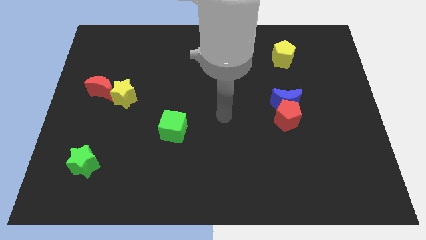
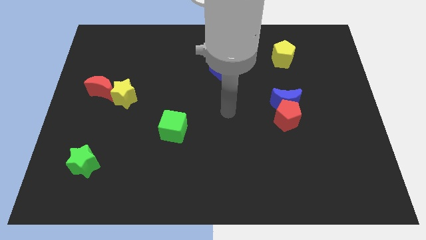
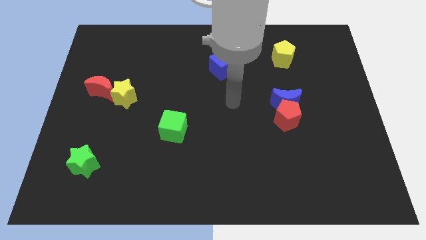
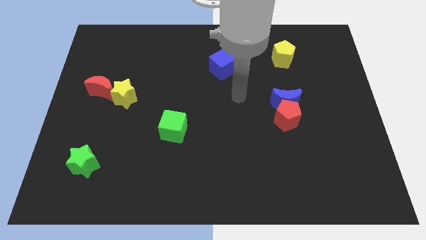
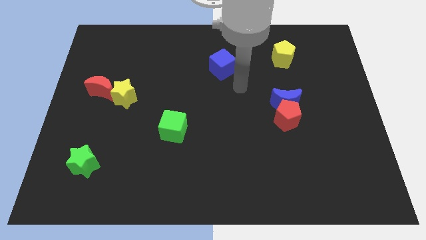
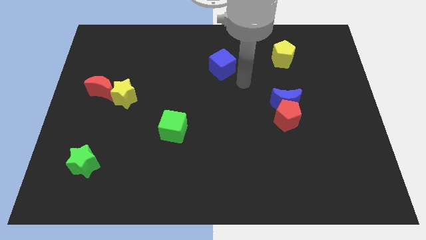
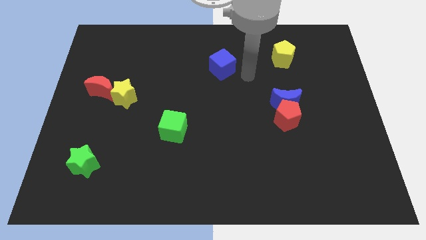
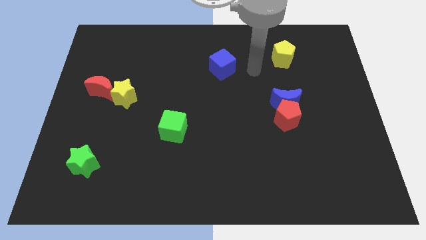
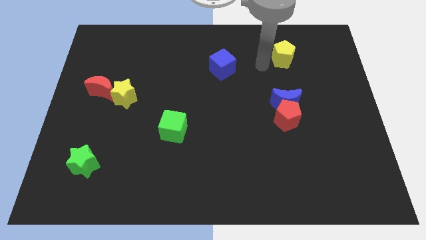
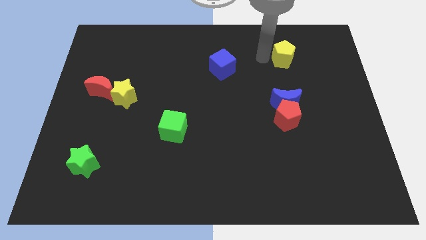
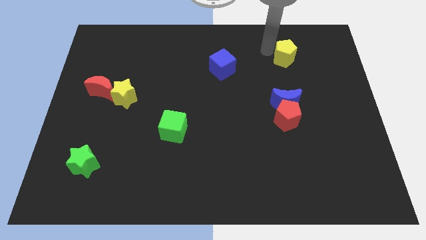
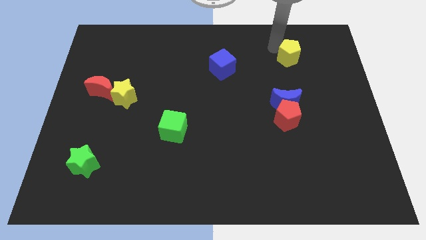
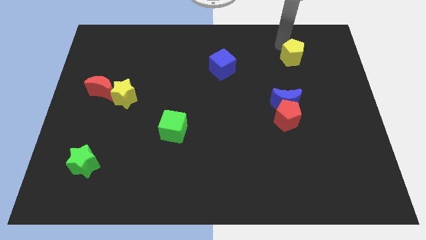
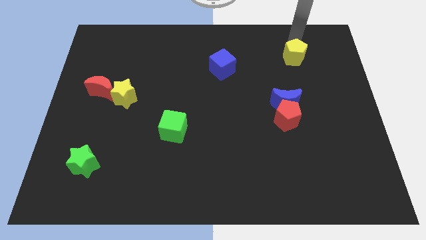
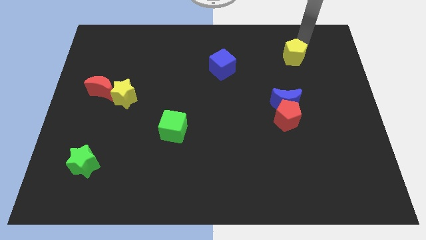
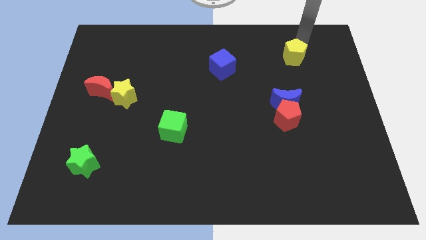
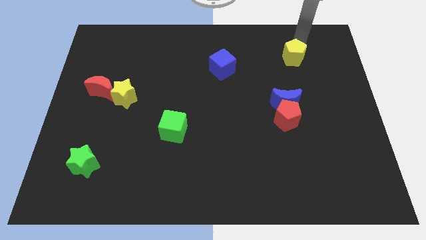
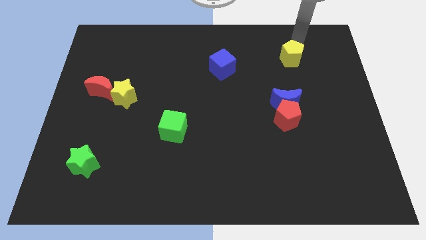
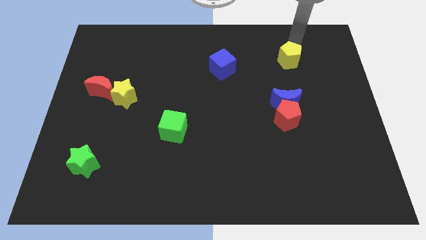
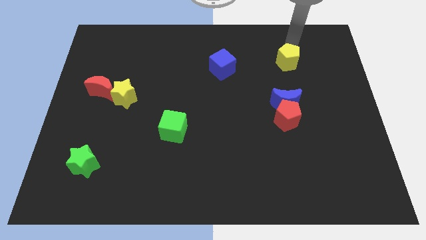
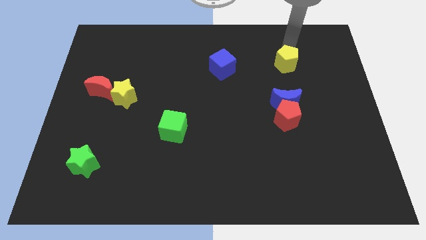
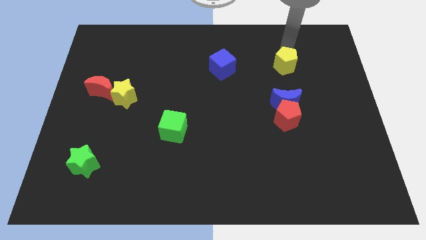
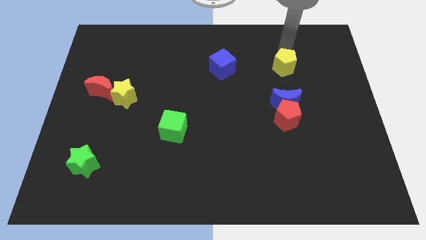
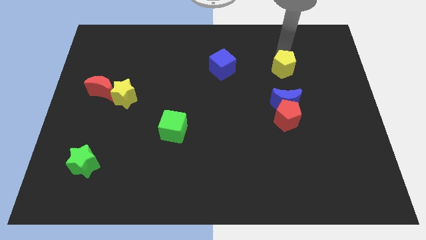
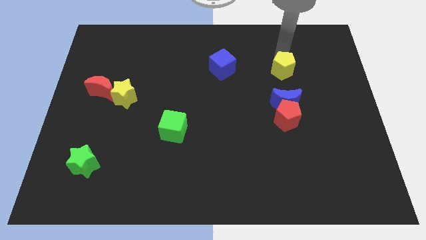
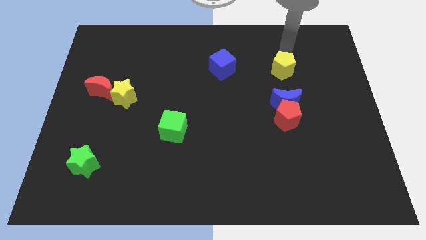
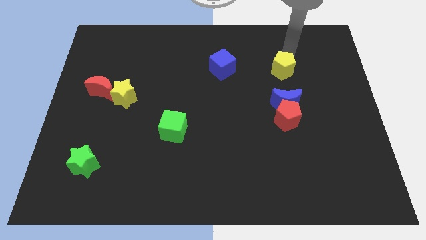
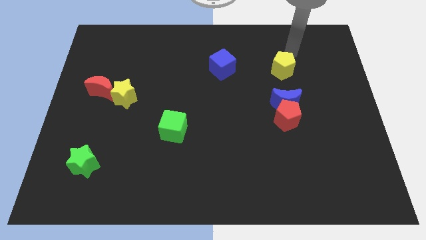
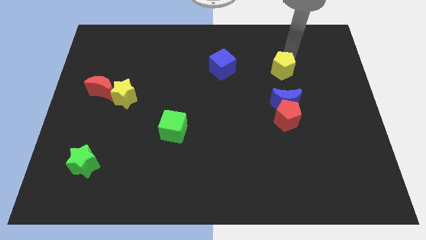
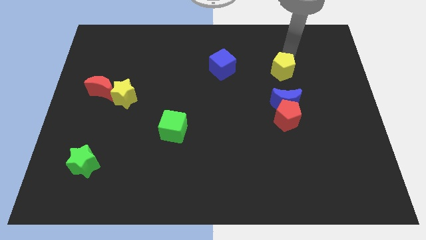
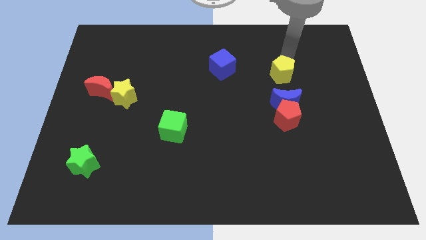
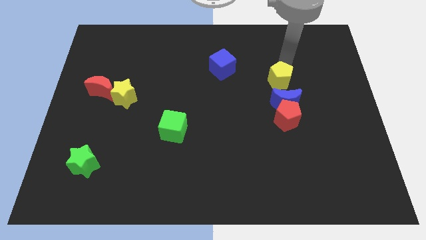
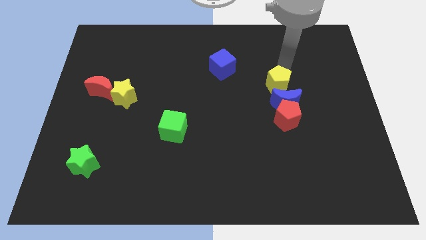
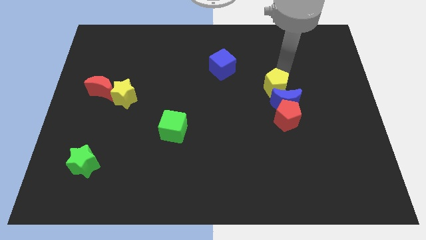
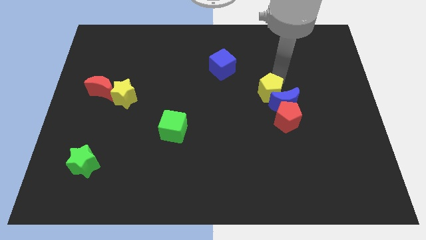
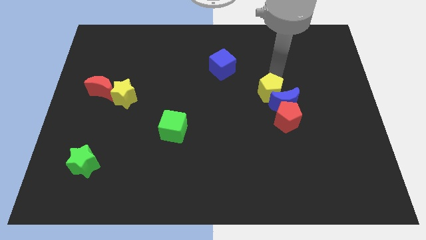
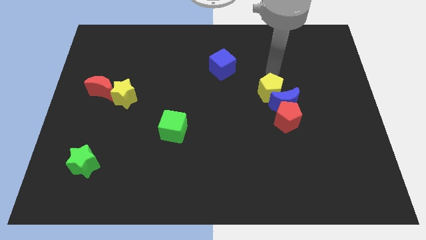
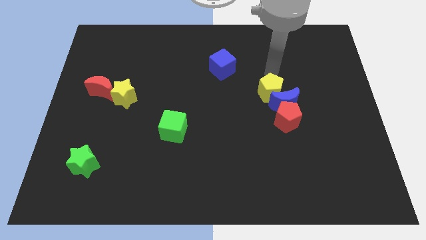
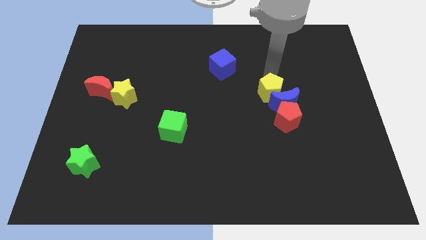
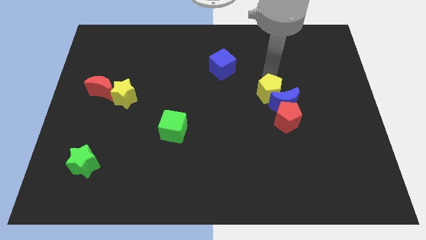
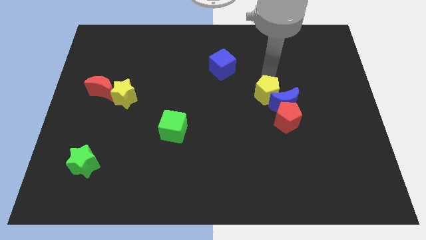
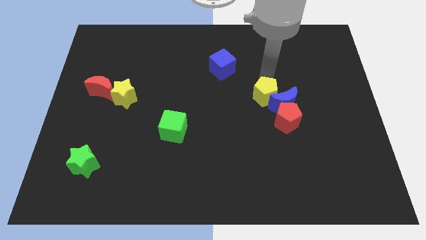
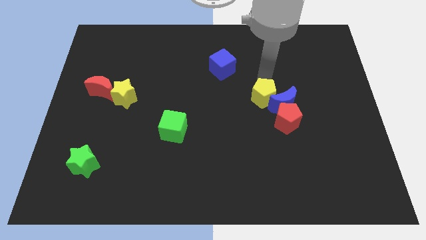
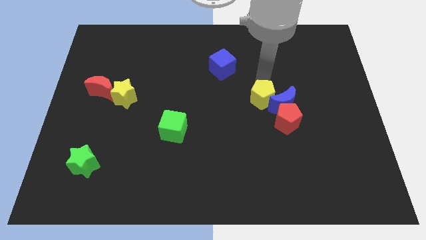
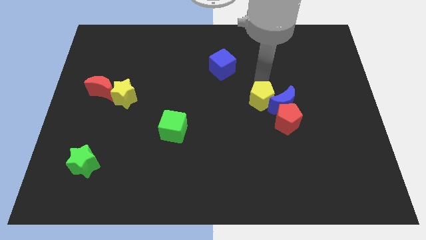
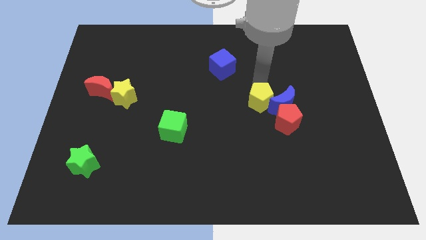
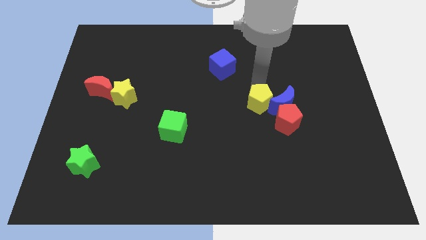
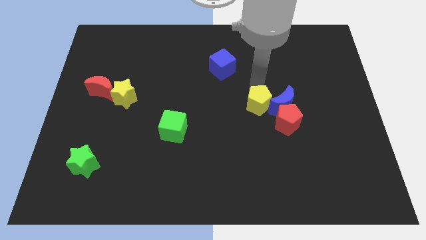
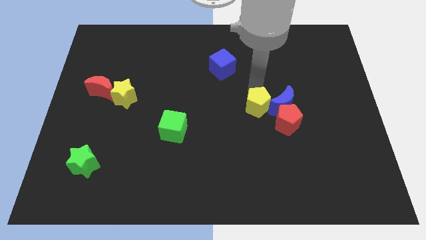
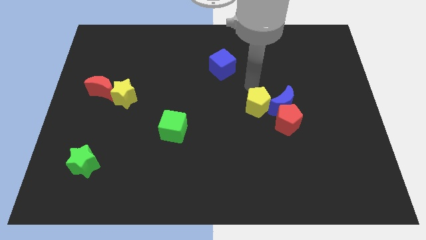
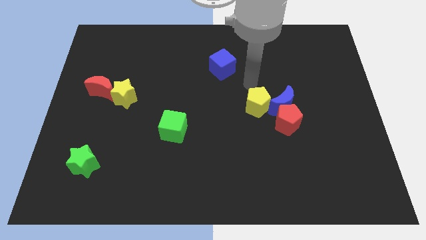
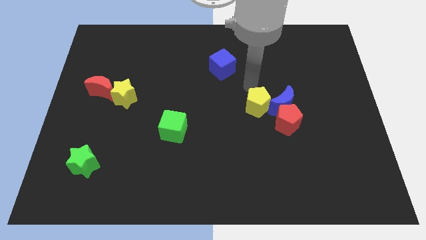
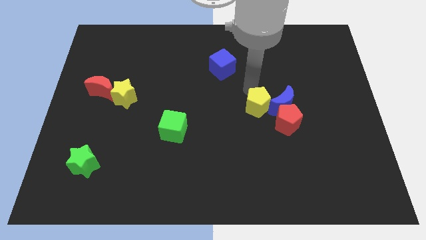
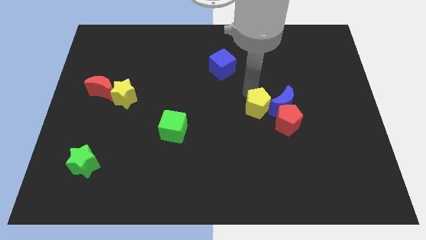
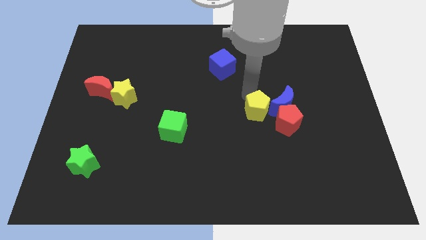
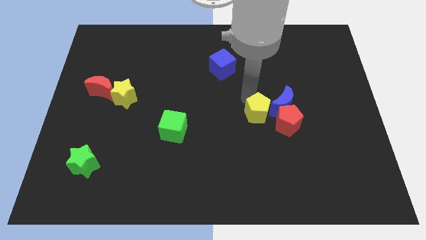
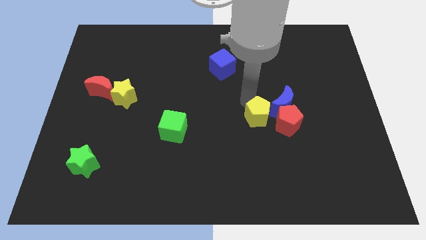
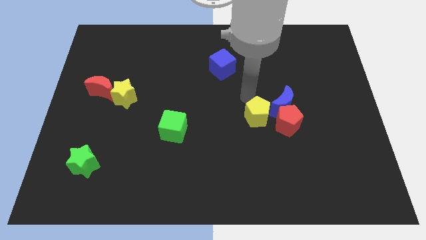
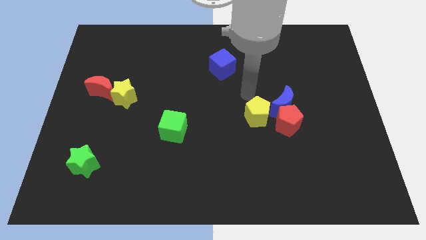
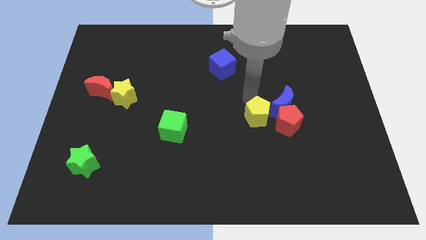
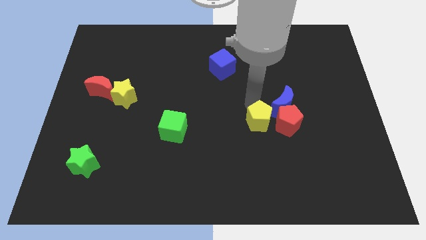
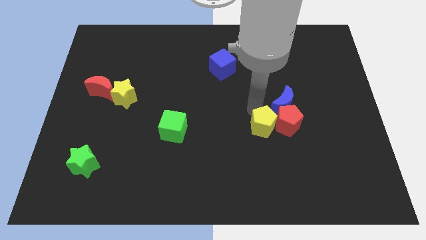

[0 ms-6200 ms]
move the yellow pentagon to the bottom left of the red pentagon

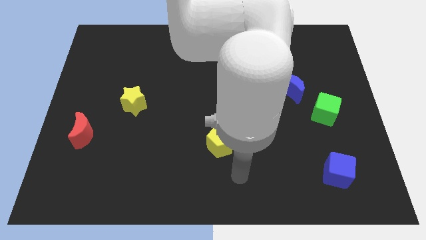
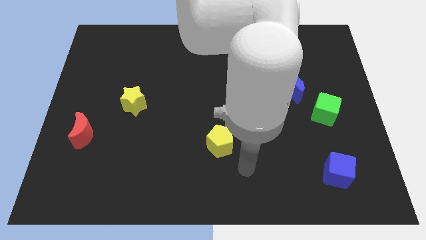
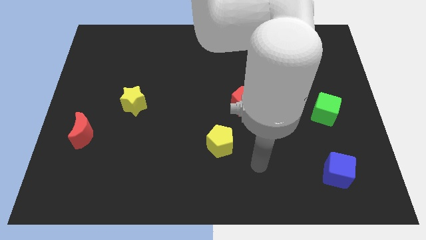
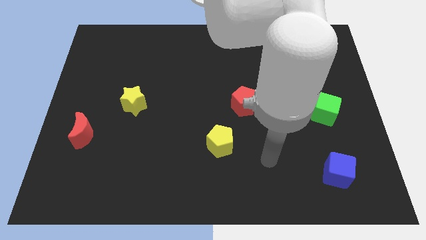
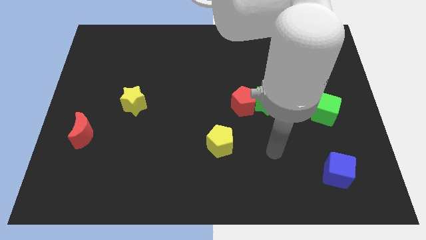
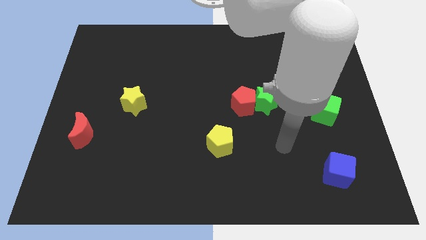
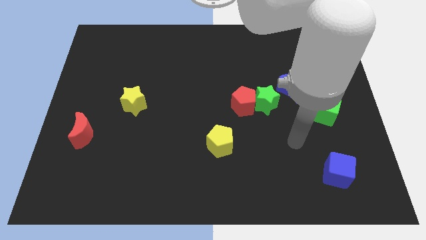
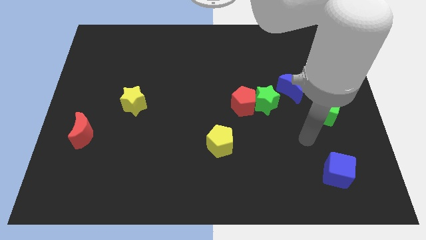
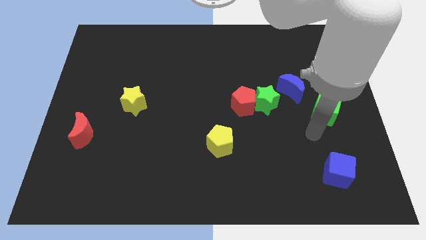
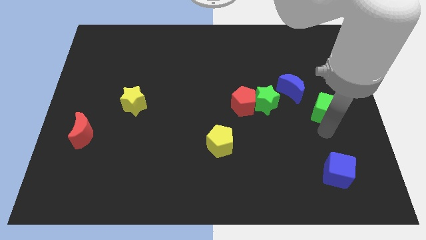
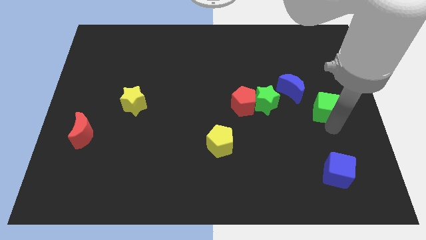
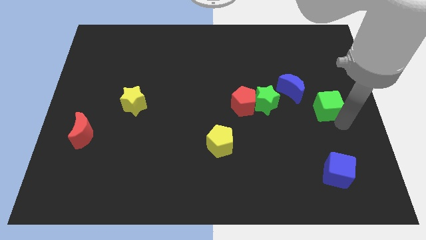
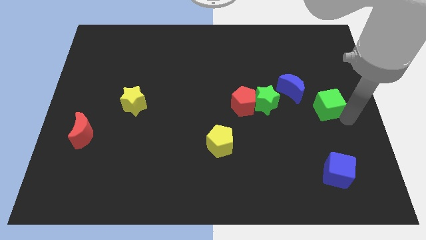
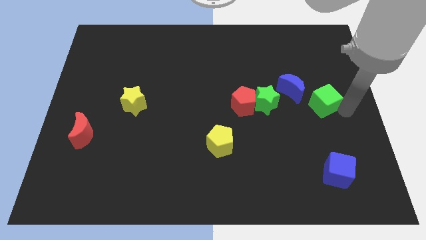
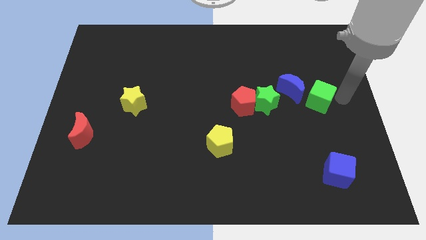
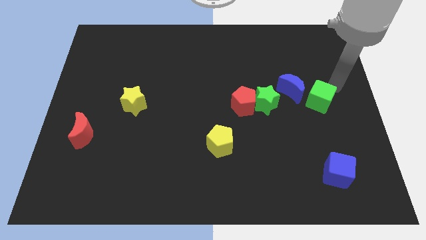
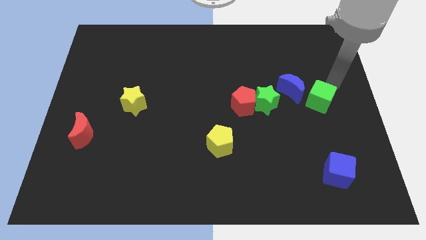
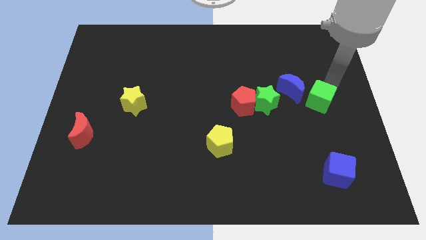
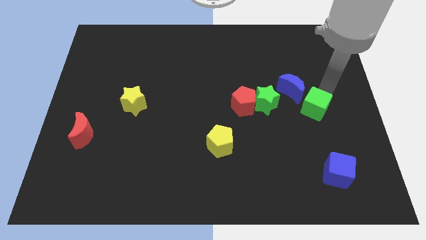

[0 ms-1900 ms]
push the green cube below the blue moon
